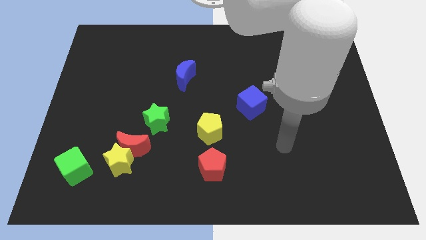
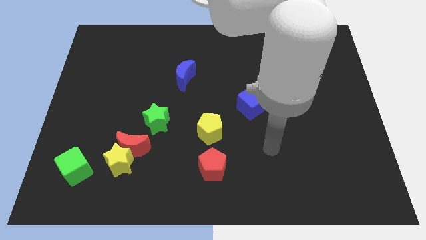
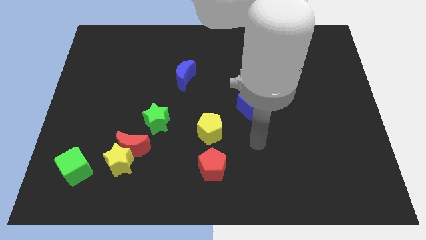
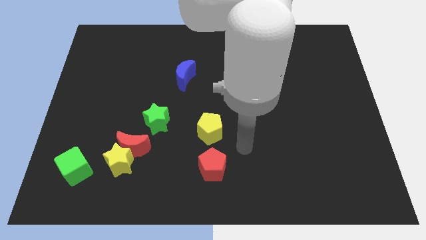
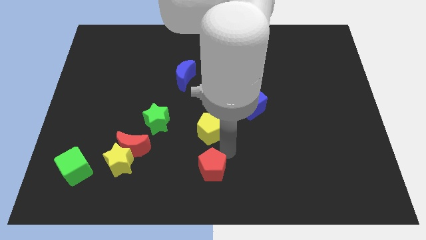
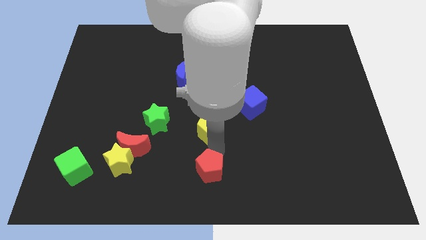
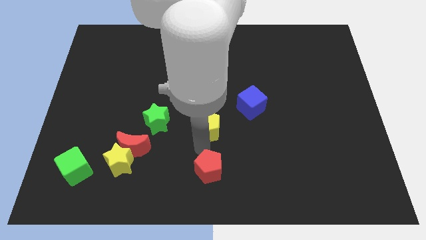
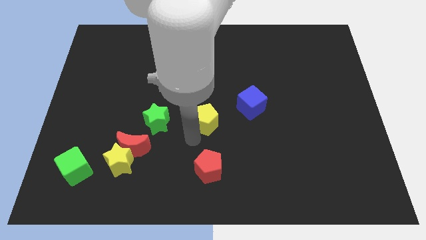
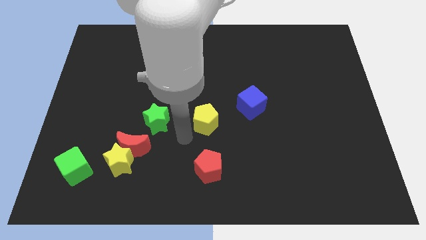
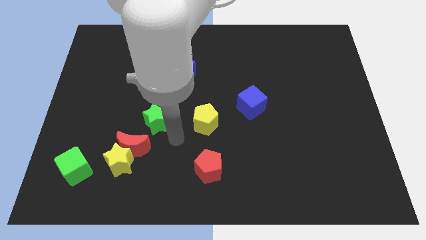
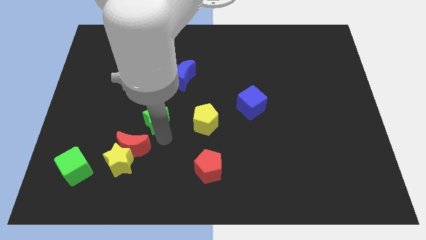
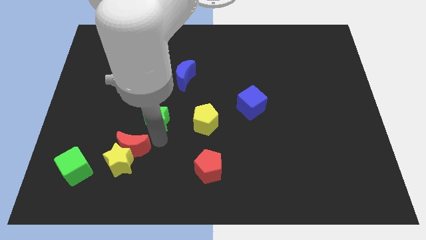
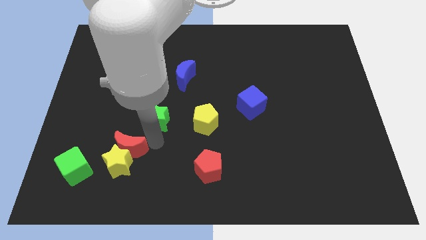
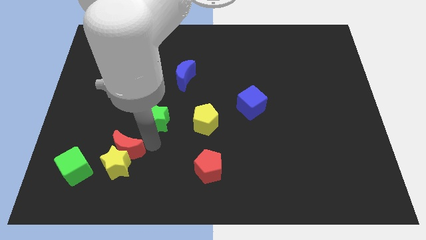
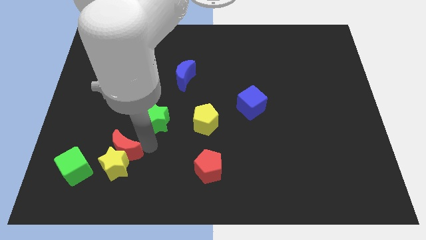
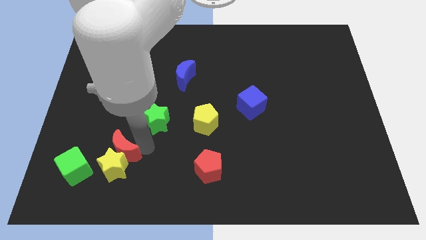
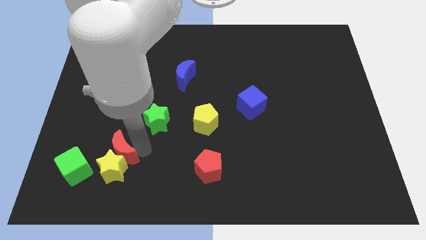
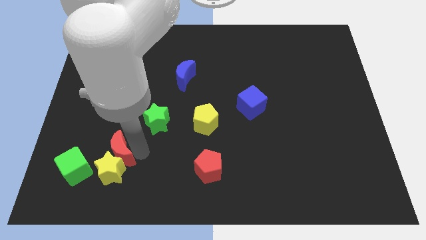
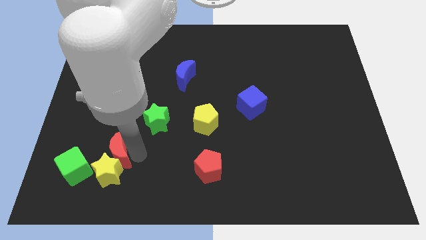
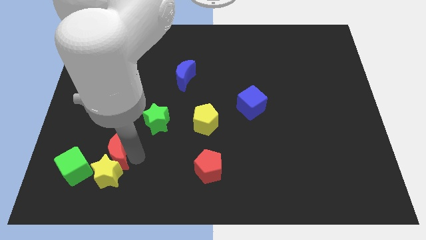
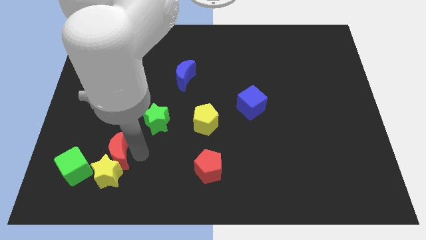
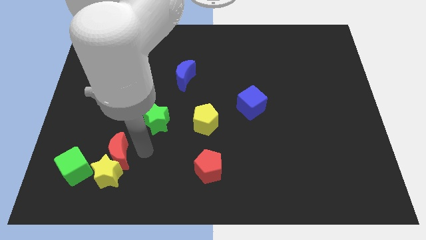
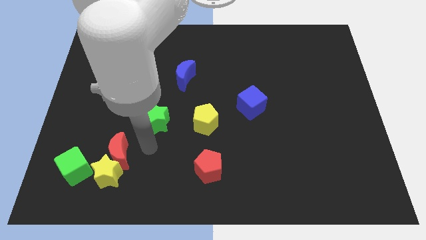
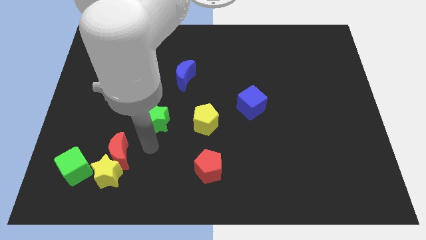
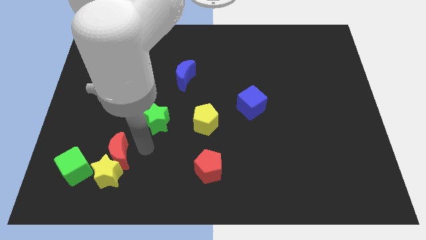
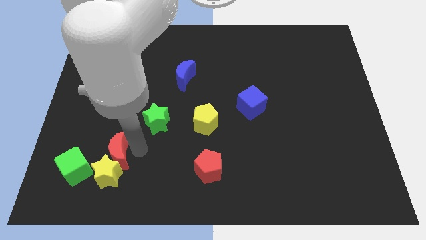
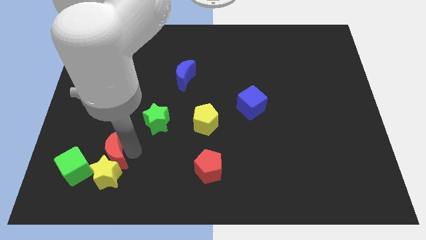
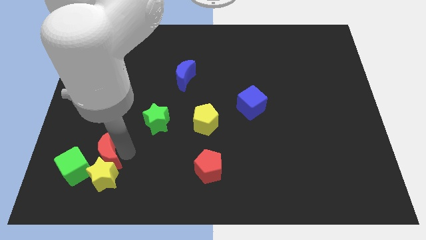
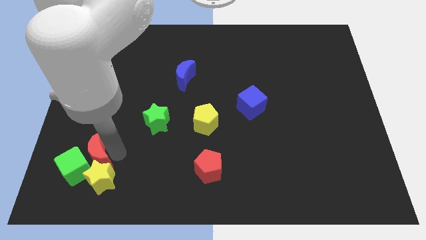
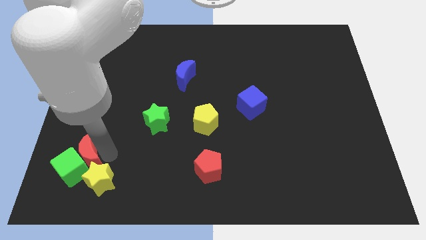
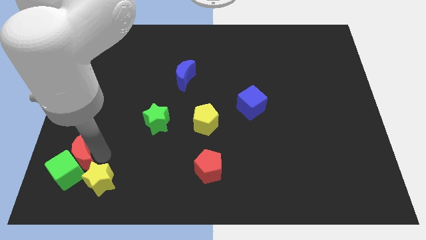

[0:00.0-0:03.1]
pull the red moon apart from the yellow star and green star

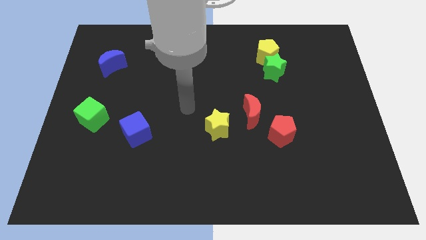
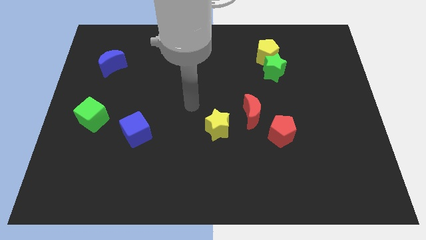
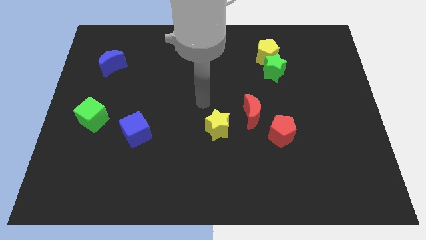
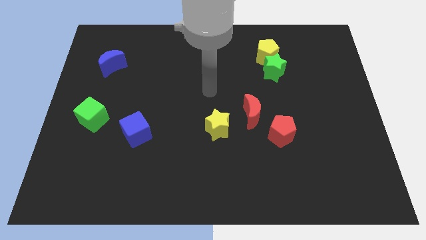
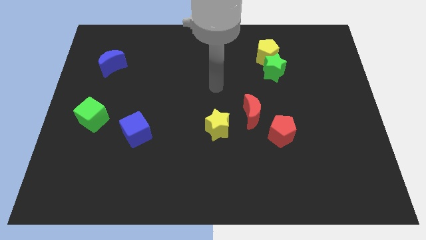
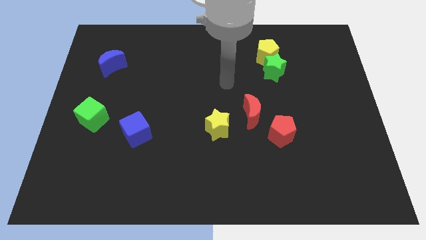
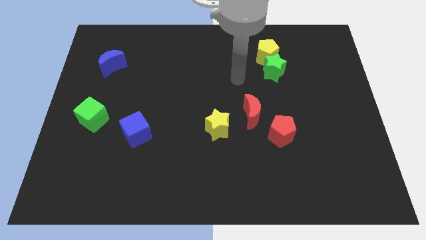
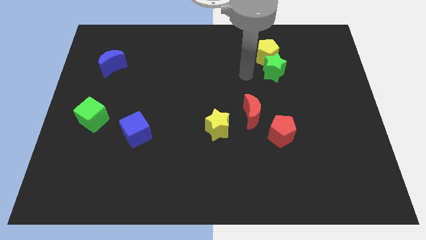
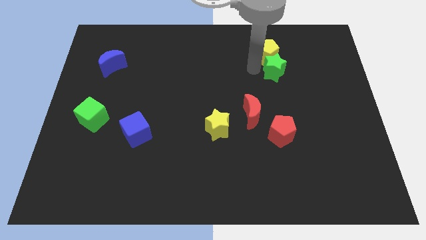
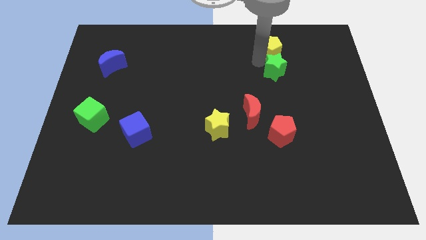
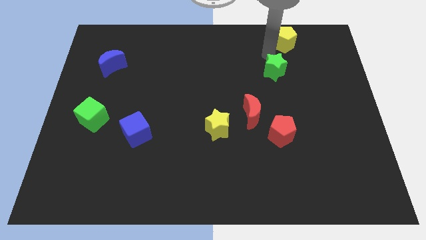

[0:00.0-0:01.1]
pull the green star apart from the yellow pentagon

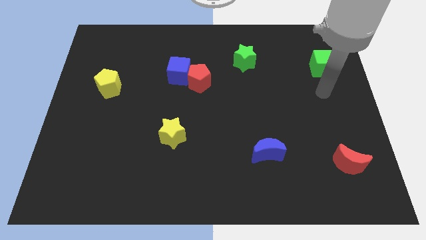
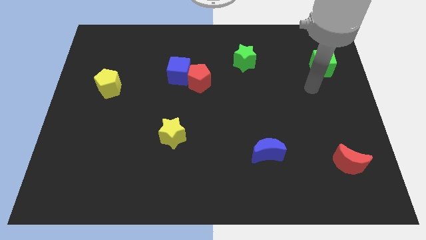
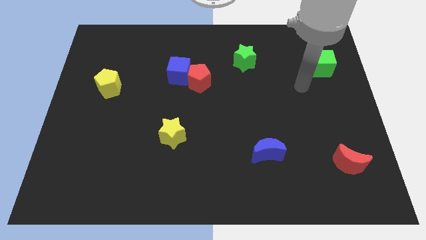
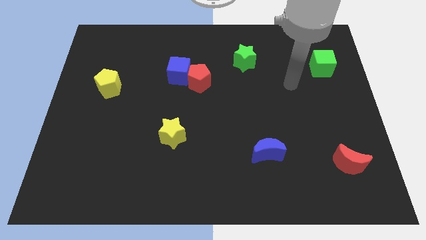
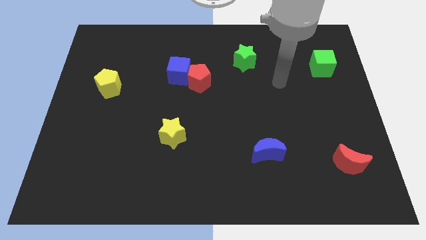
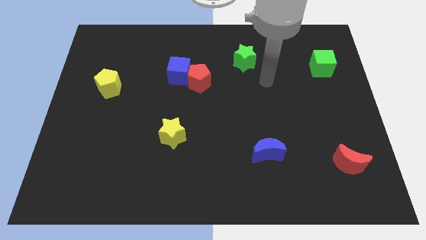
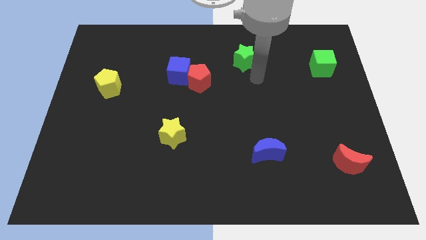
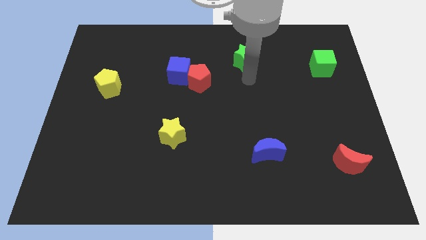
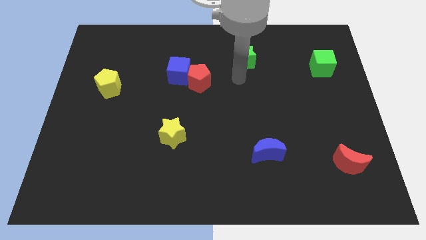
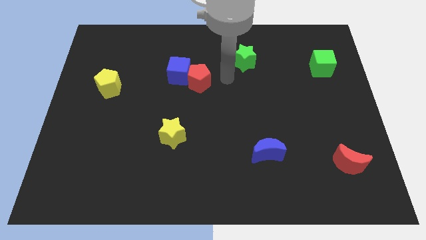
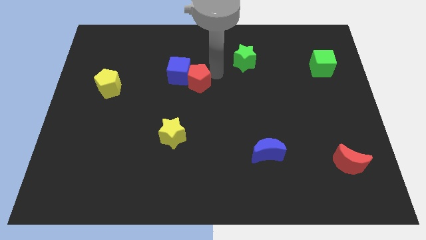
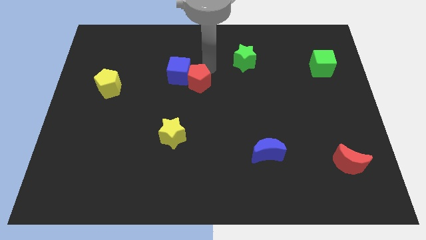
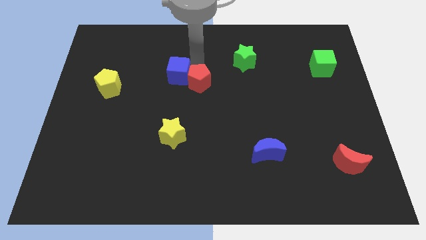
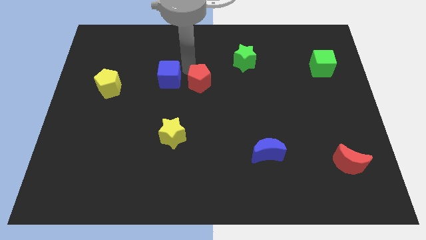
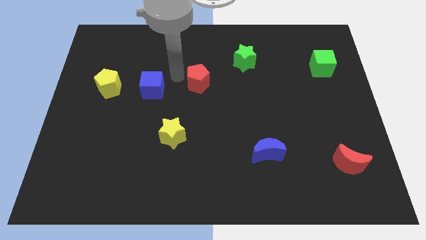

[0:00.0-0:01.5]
separate the red pentagon from the blue cube

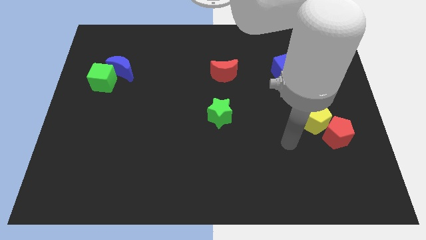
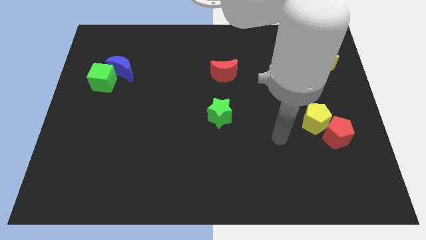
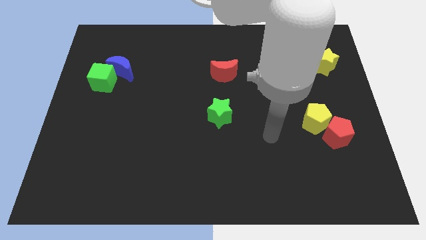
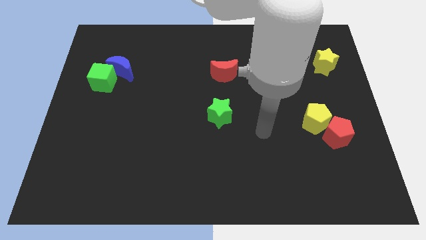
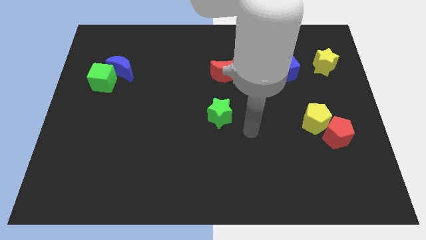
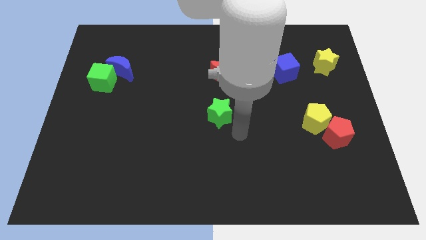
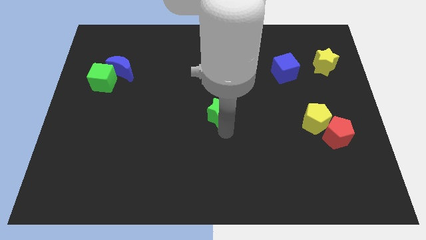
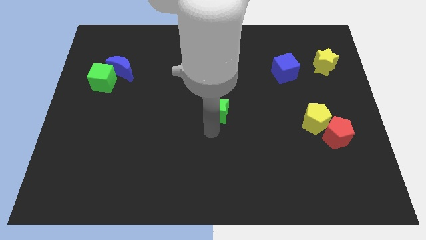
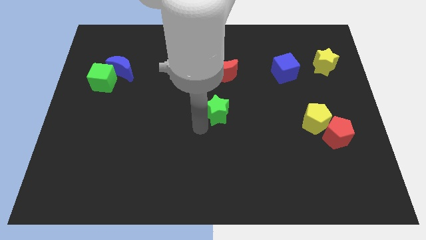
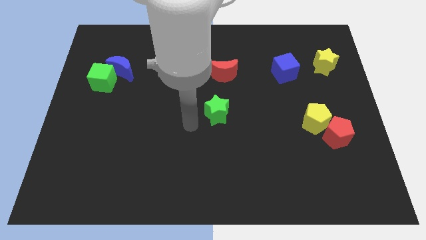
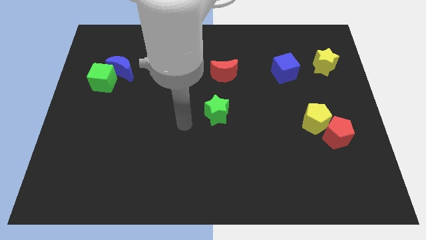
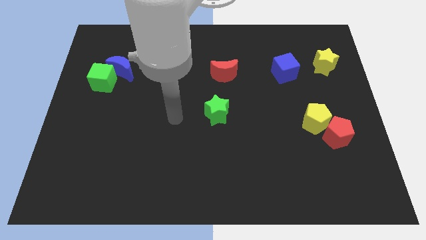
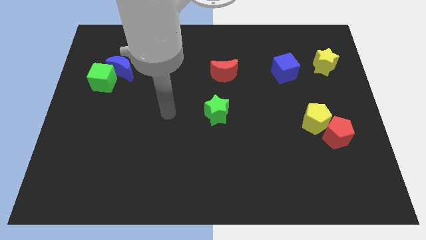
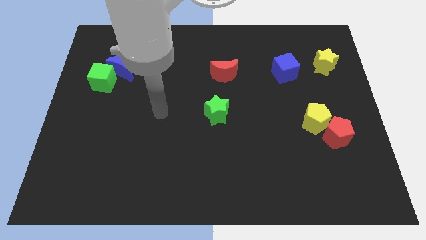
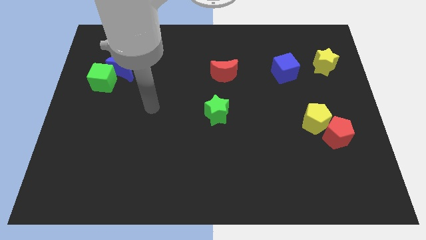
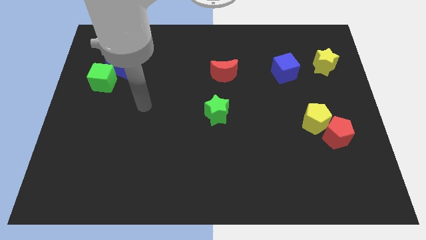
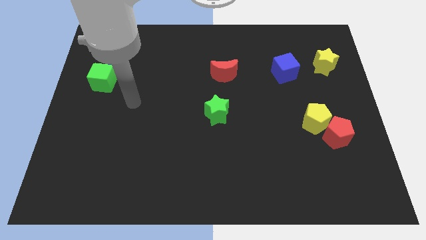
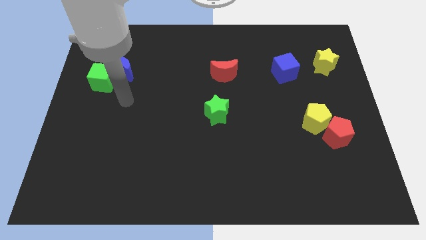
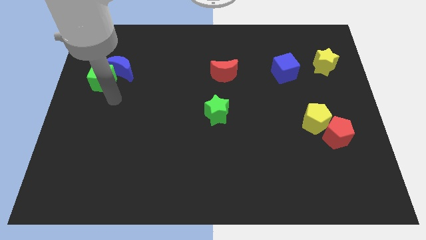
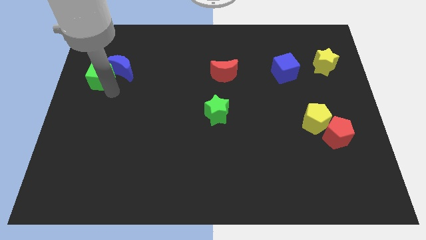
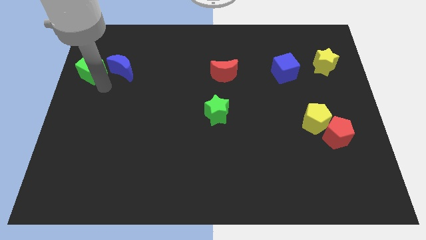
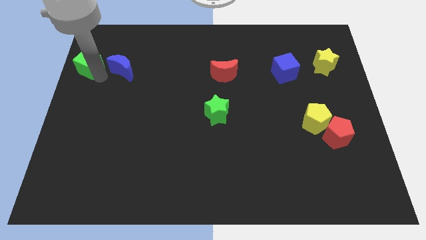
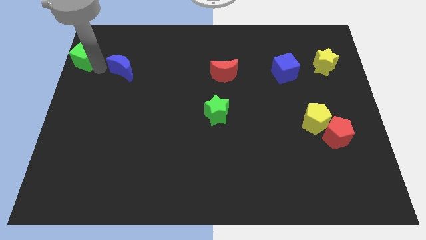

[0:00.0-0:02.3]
pull the blue moon apart from the green cube

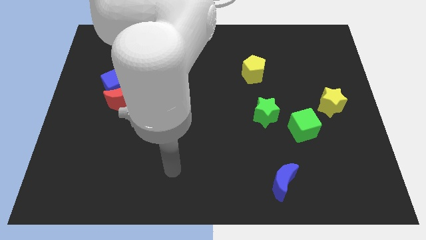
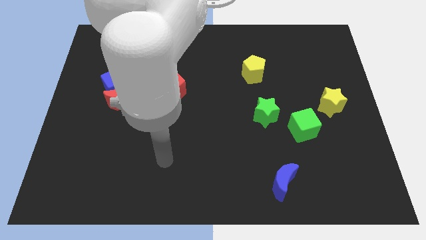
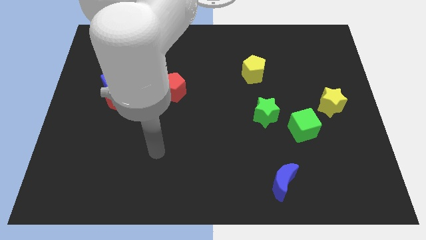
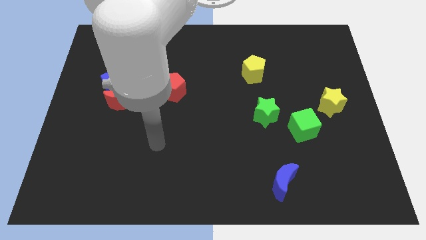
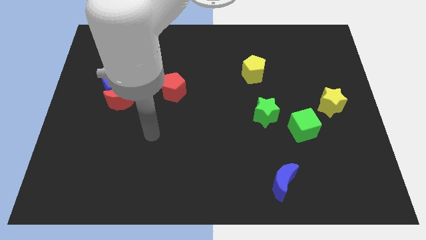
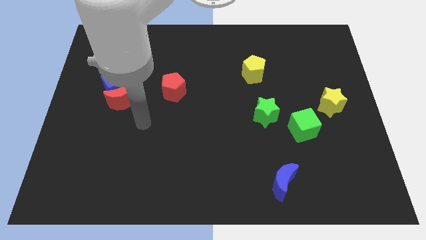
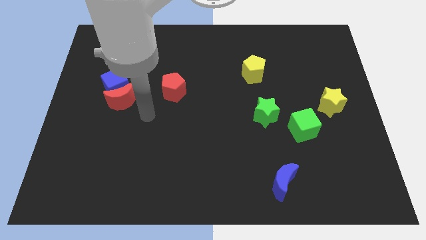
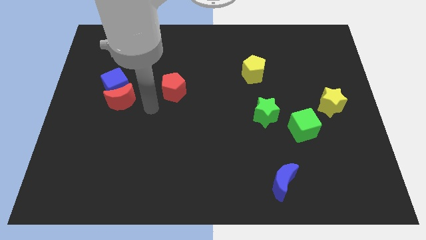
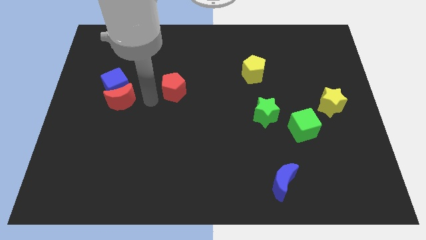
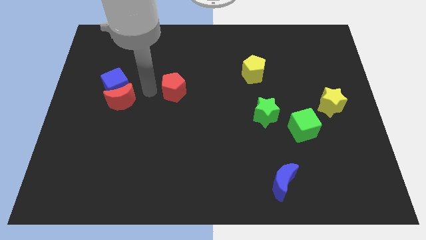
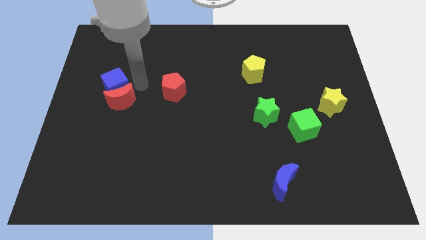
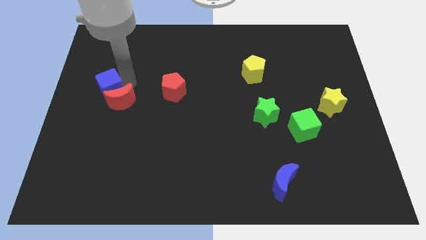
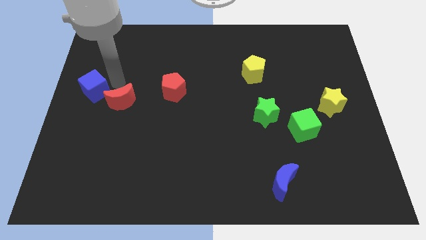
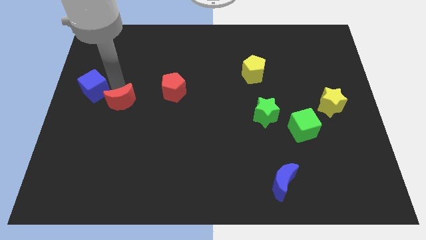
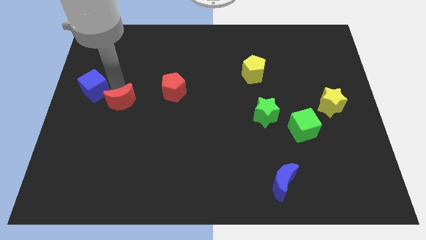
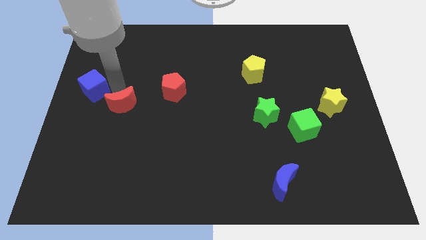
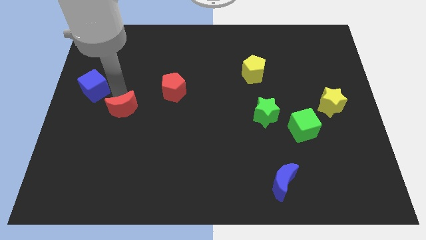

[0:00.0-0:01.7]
separate the red moon from the blue cube
